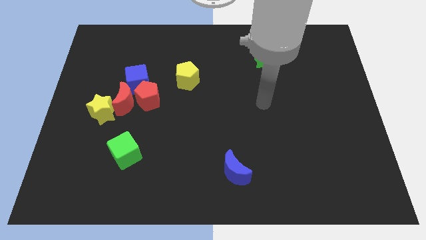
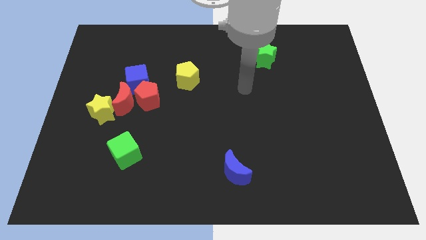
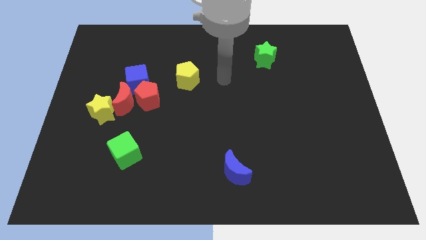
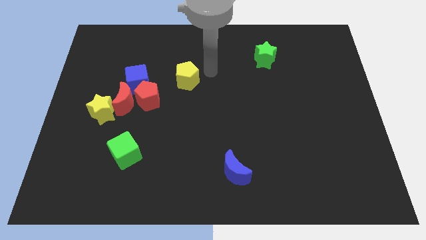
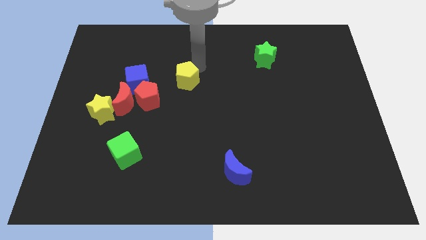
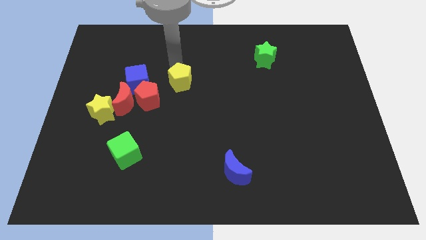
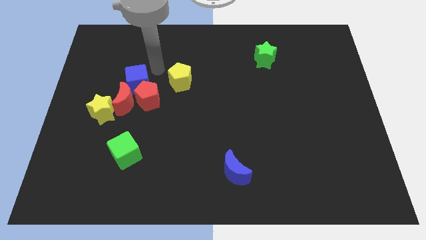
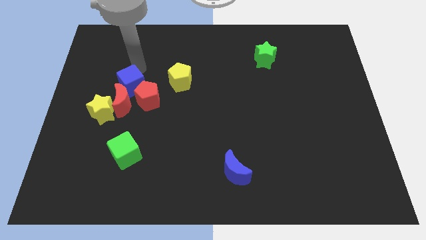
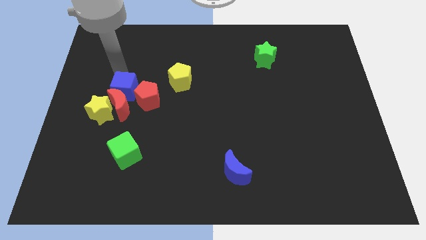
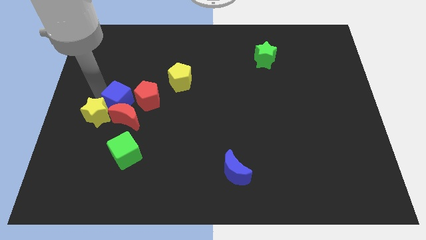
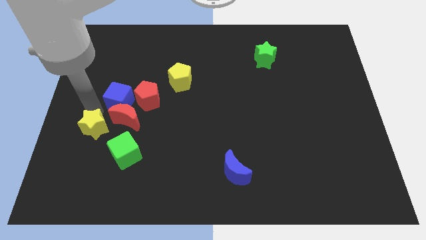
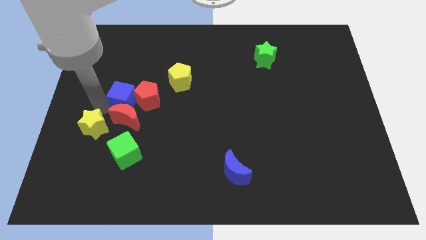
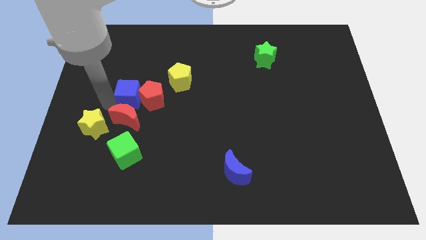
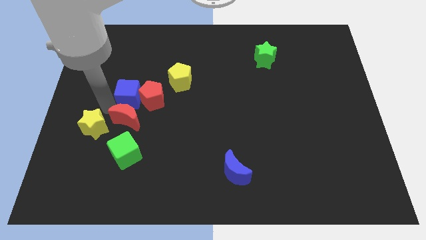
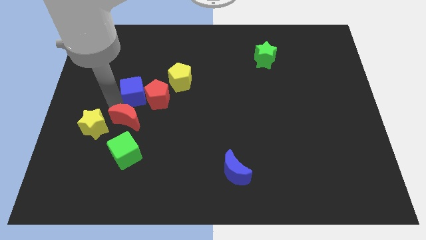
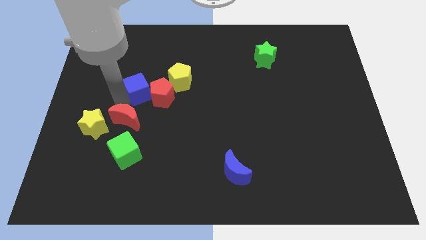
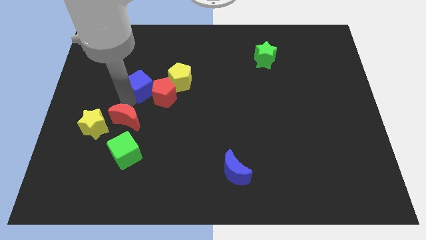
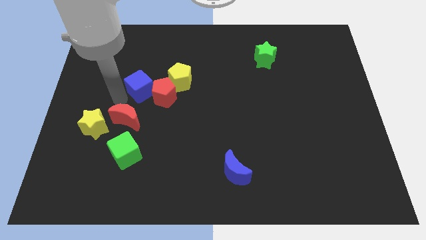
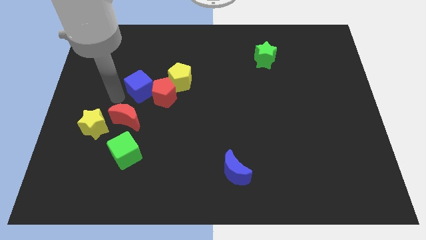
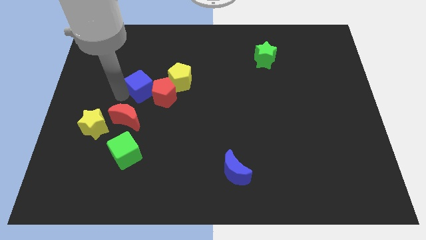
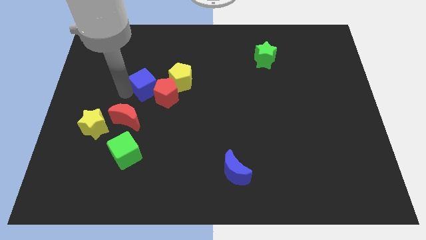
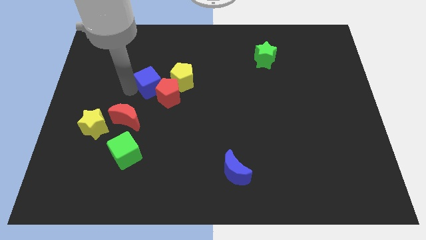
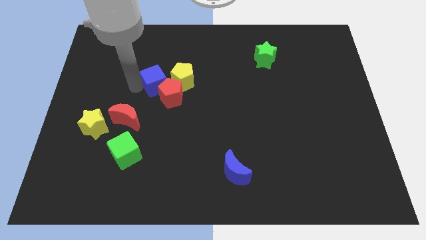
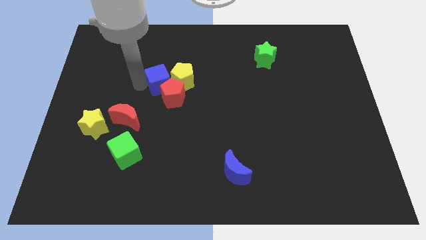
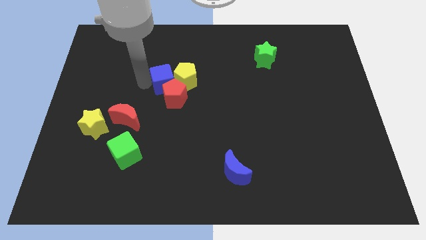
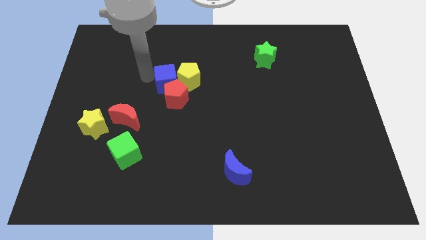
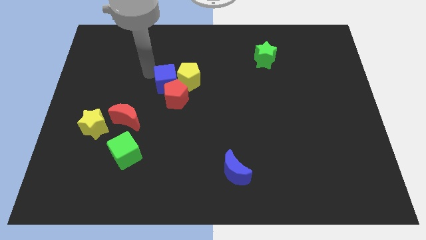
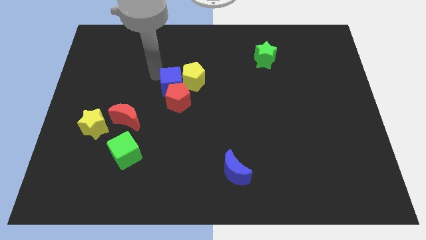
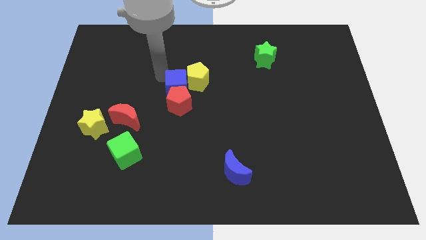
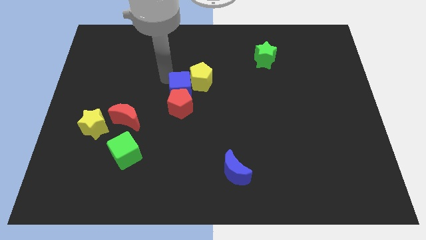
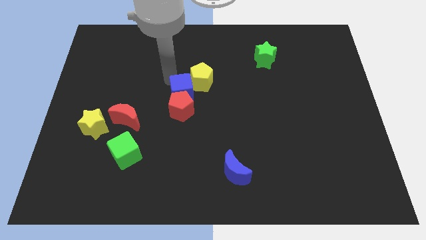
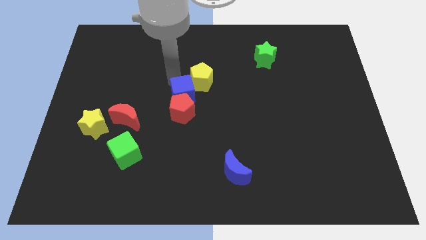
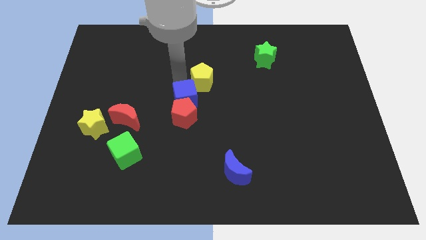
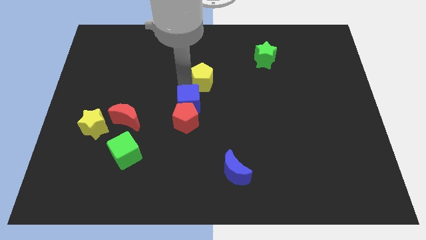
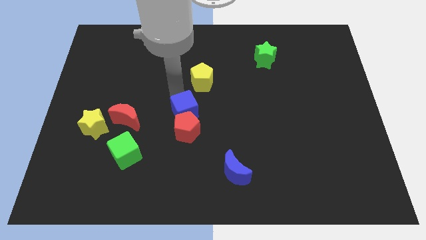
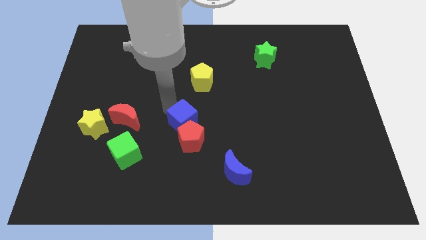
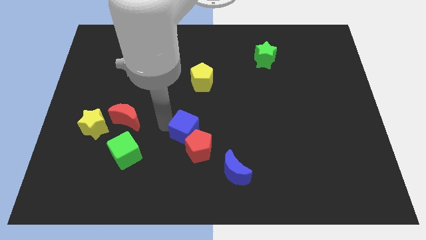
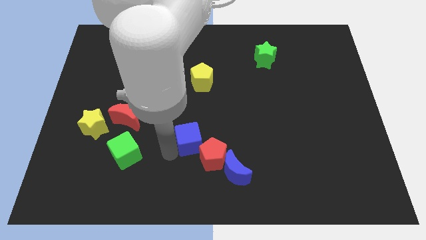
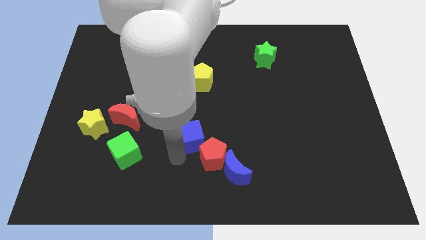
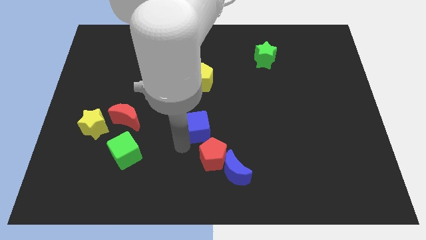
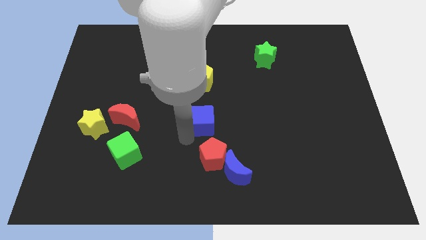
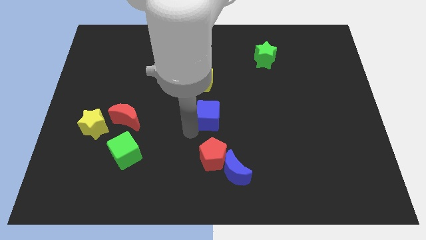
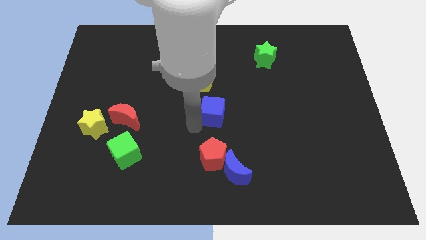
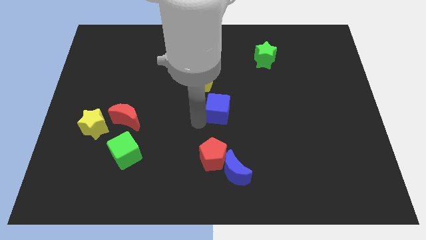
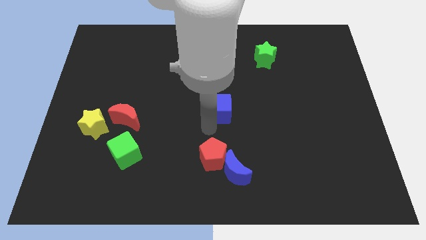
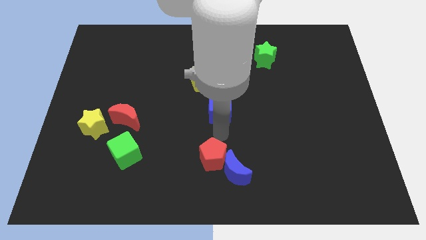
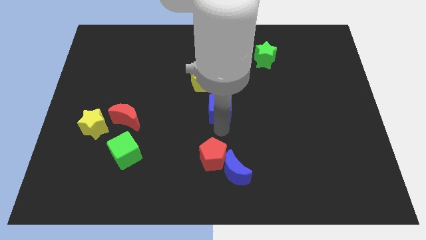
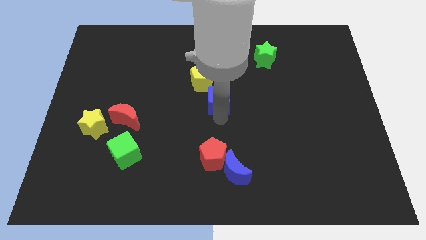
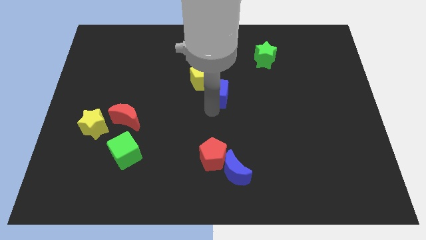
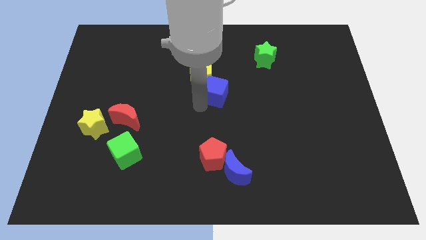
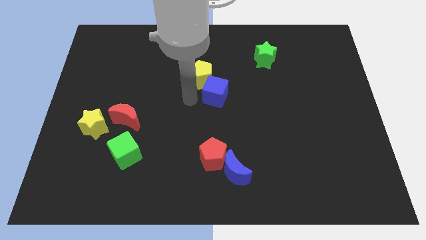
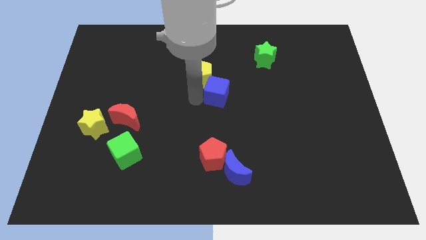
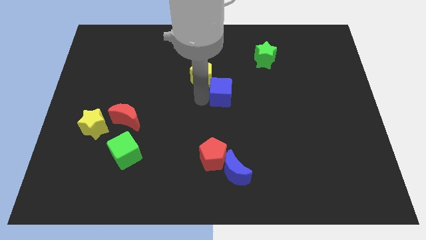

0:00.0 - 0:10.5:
push the blue cube to the right

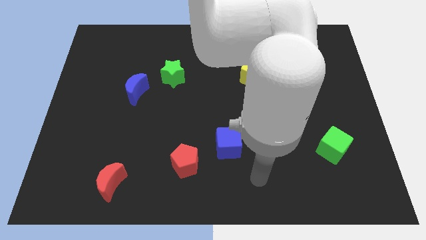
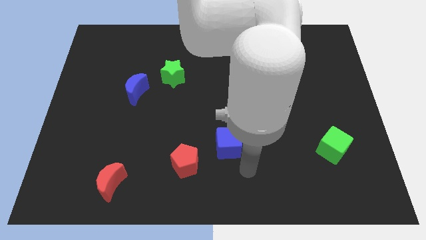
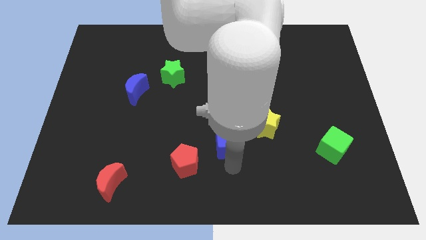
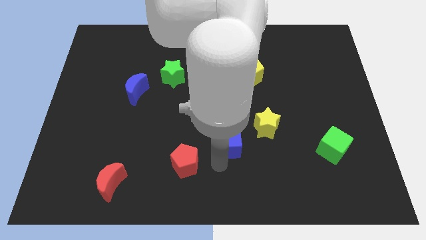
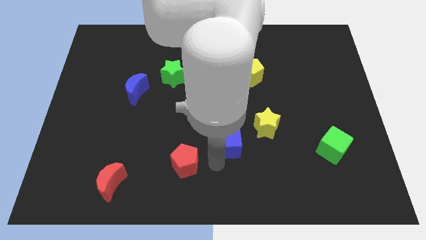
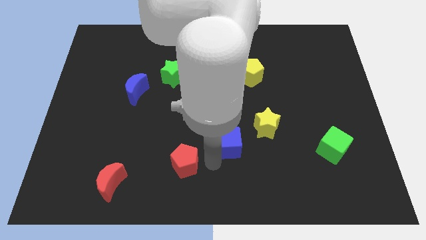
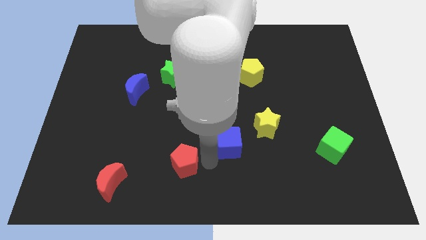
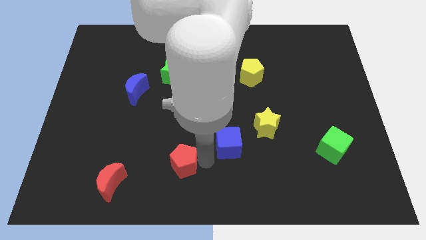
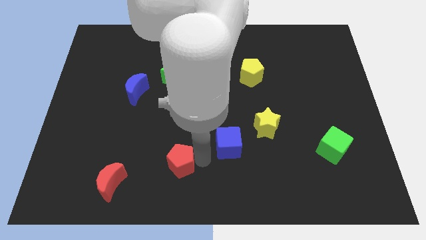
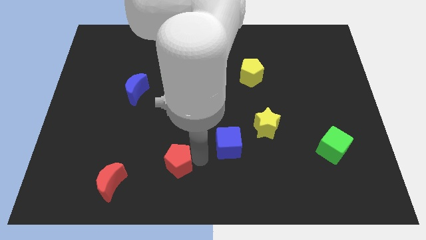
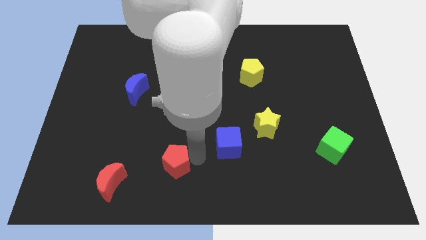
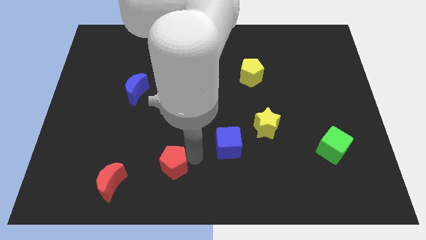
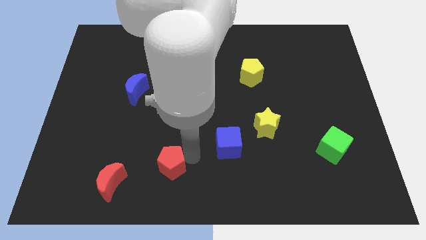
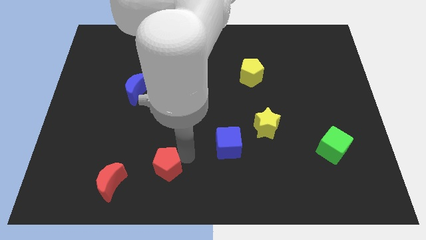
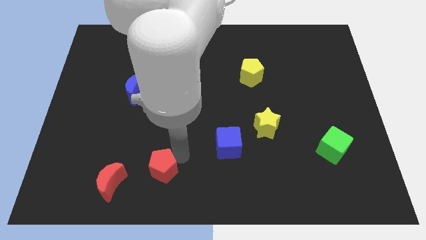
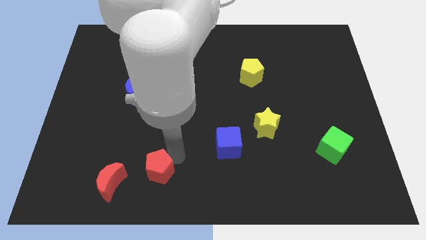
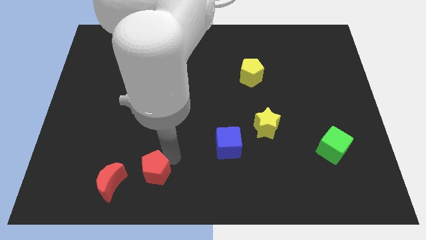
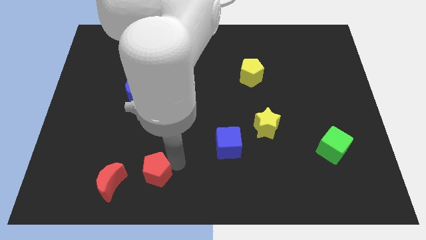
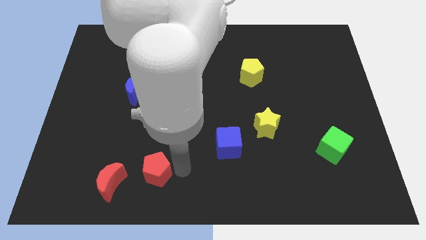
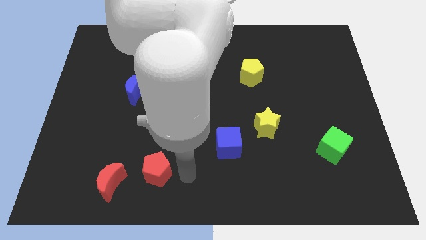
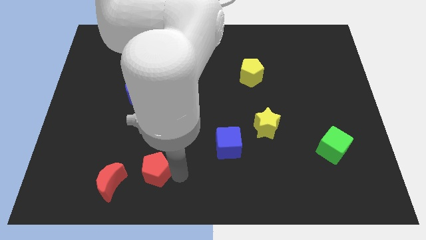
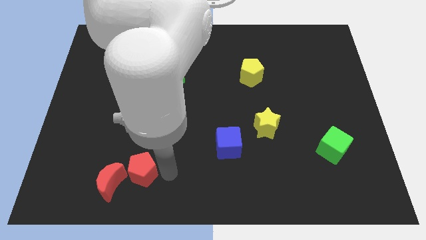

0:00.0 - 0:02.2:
slide the red pentagon to the left a bit

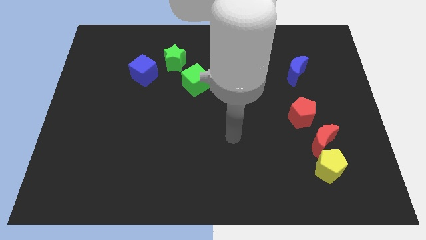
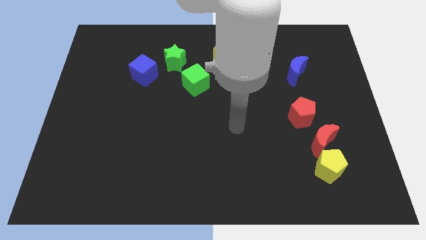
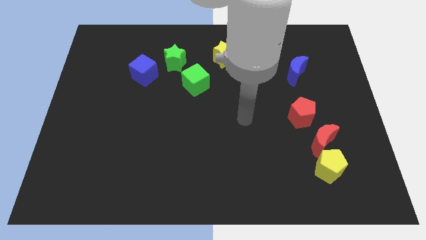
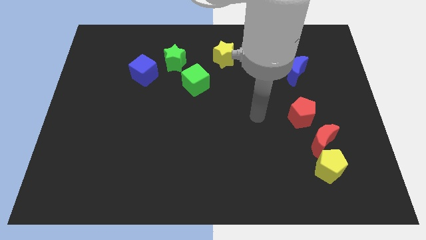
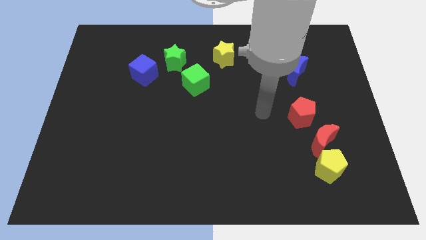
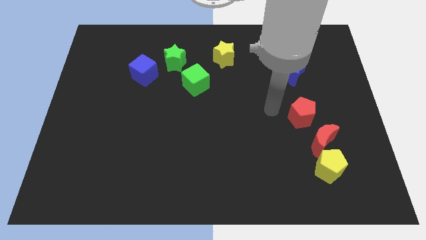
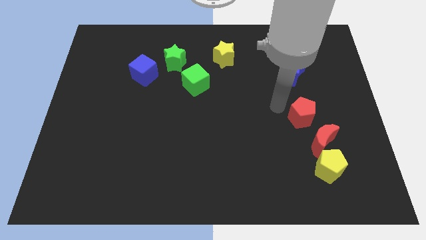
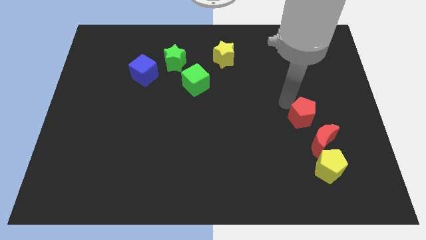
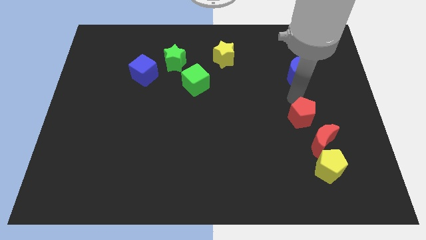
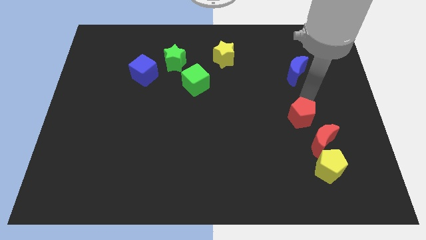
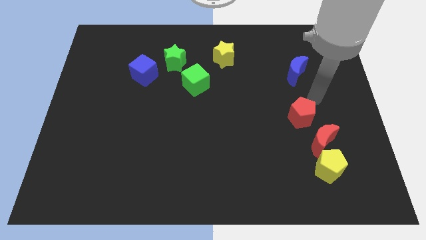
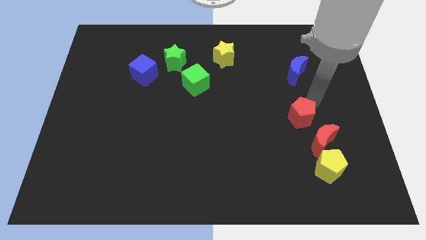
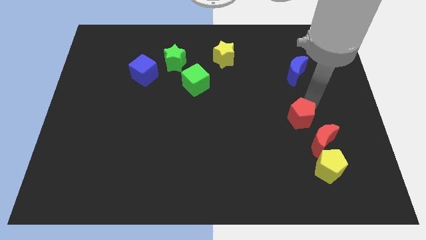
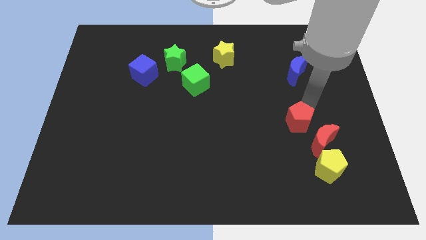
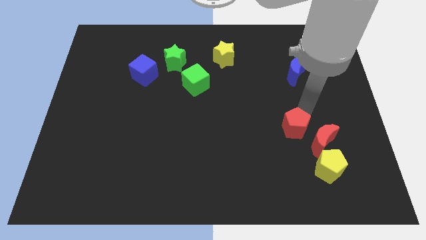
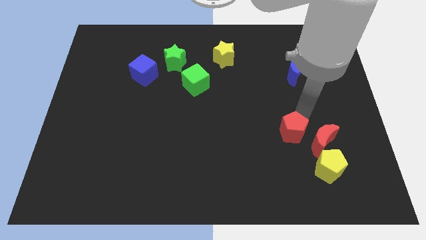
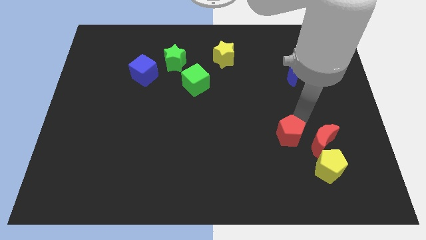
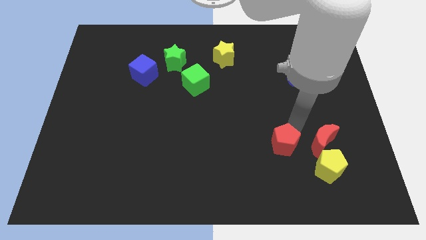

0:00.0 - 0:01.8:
slightly push the red pentagon diagonally down and left
